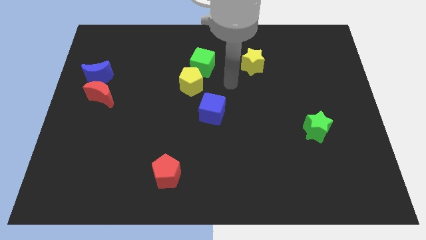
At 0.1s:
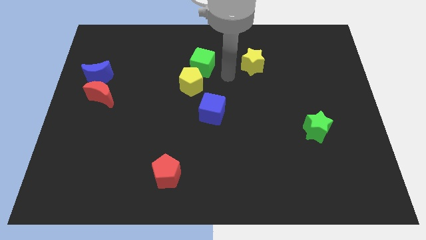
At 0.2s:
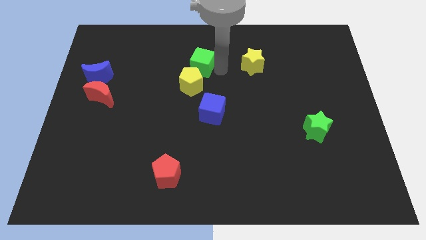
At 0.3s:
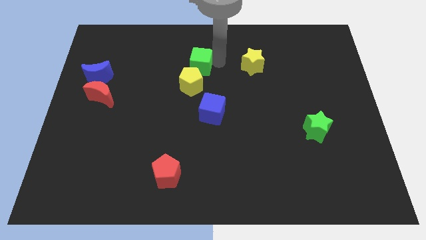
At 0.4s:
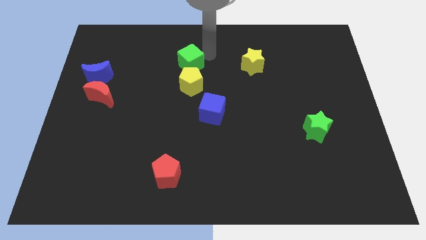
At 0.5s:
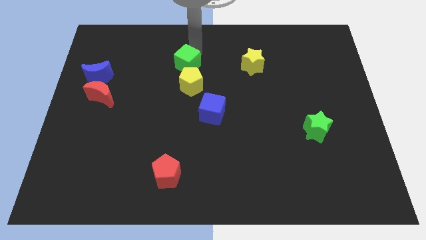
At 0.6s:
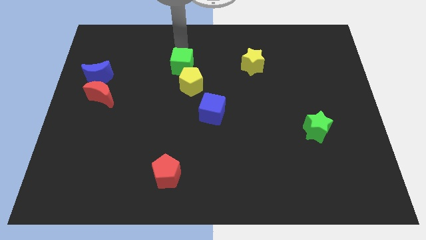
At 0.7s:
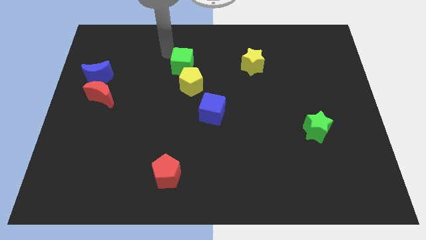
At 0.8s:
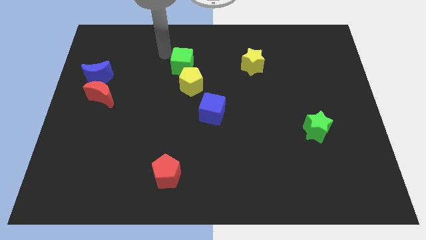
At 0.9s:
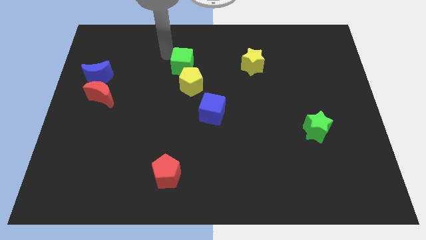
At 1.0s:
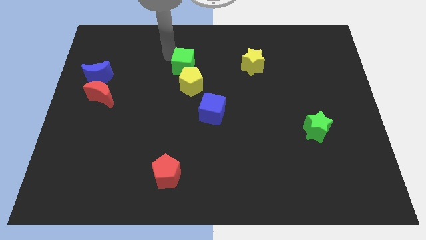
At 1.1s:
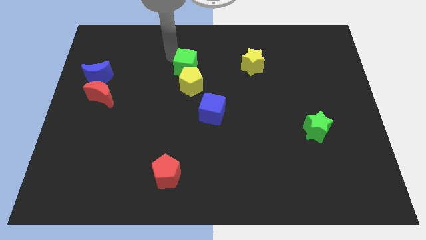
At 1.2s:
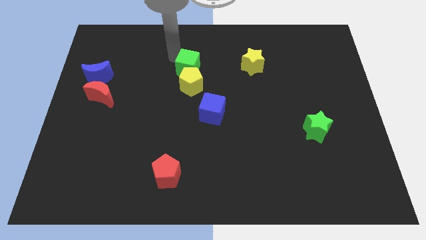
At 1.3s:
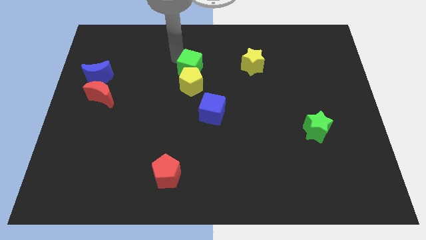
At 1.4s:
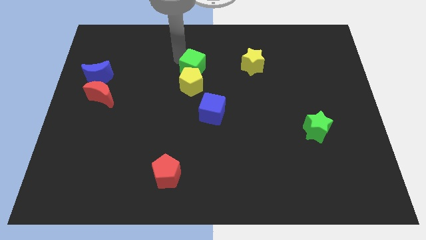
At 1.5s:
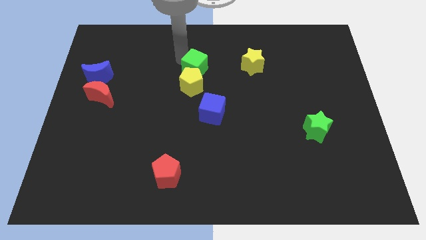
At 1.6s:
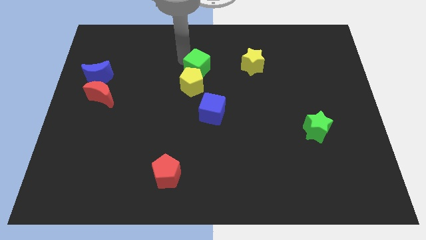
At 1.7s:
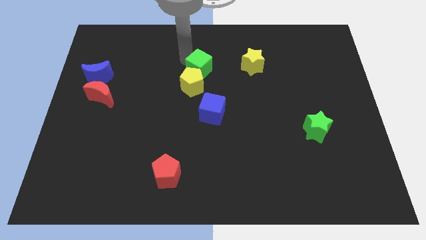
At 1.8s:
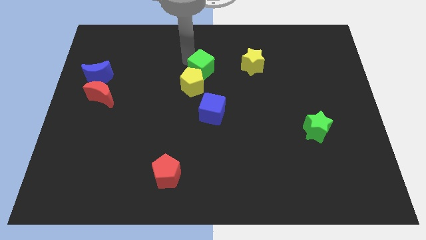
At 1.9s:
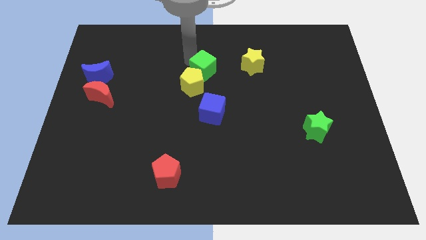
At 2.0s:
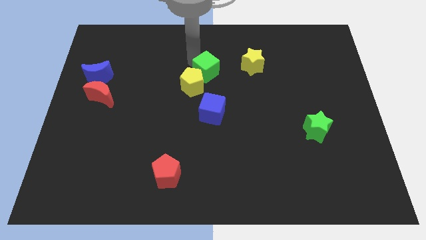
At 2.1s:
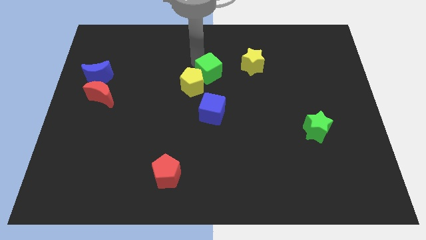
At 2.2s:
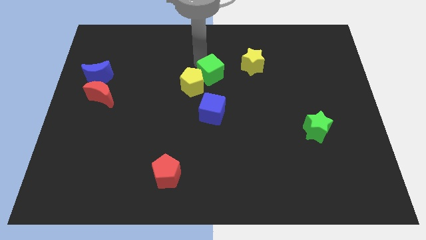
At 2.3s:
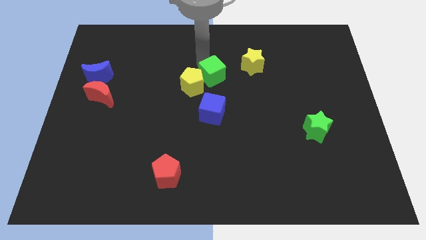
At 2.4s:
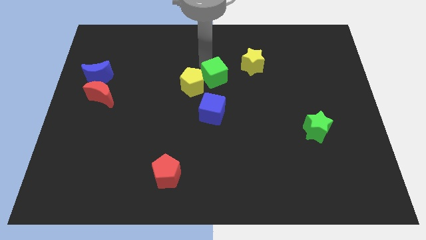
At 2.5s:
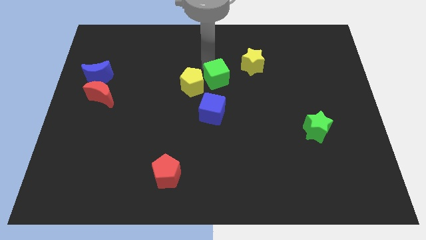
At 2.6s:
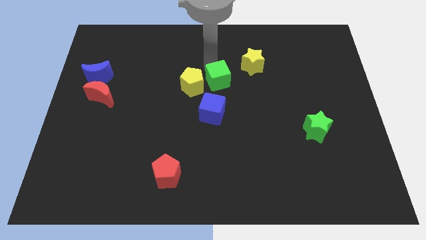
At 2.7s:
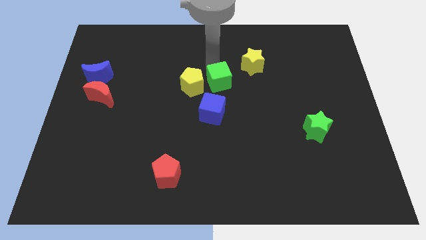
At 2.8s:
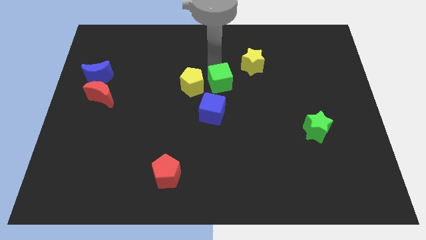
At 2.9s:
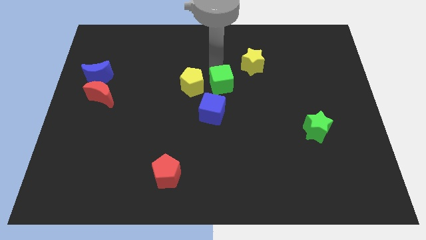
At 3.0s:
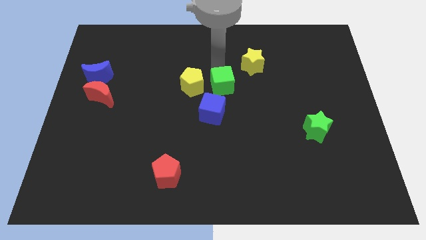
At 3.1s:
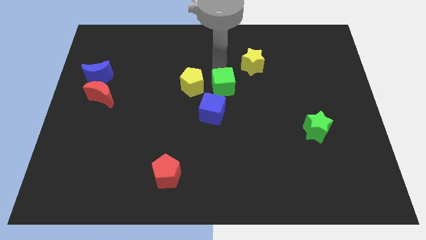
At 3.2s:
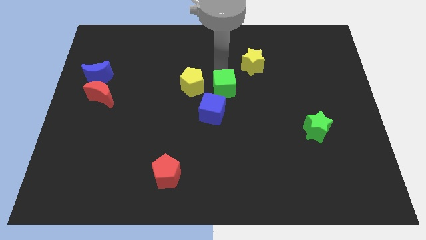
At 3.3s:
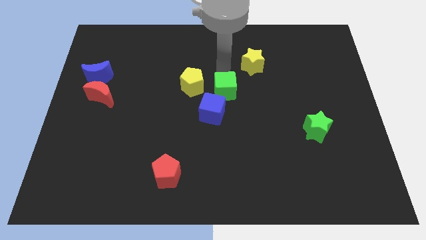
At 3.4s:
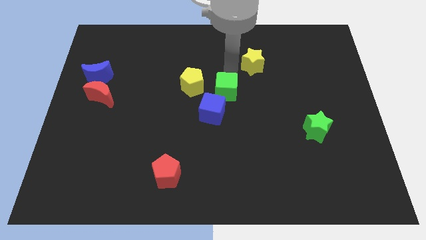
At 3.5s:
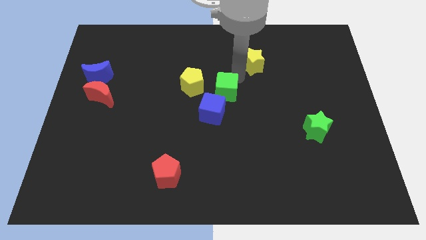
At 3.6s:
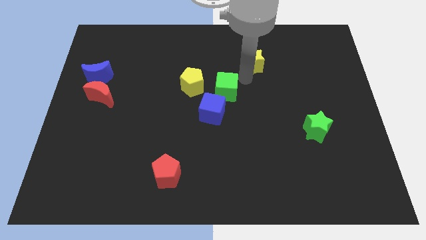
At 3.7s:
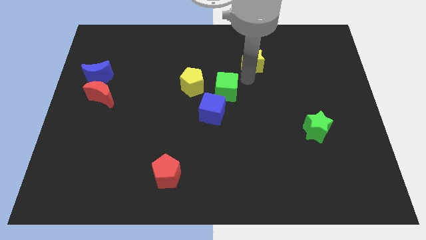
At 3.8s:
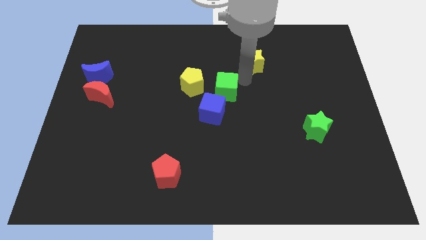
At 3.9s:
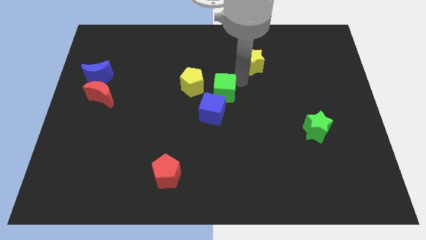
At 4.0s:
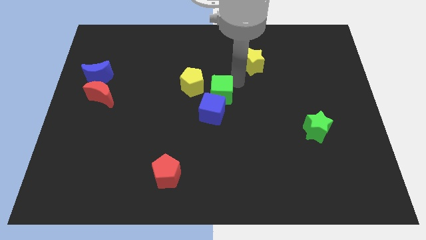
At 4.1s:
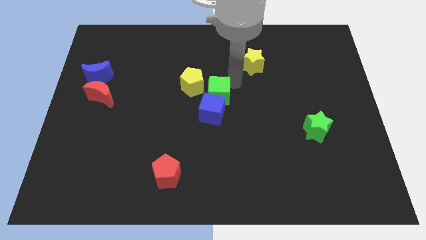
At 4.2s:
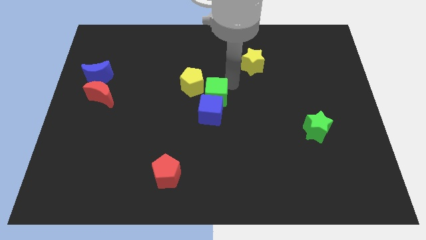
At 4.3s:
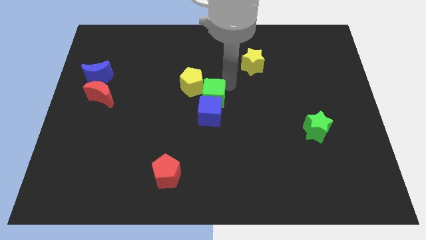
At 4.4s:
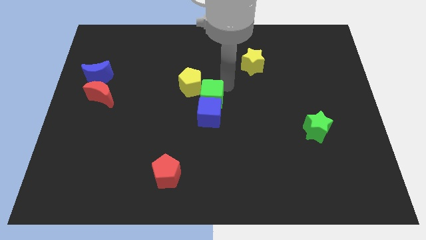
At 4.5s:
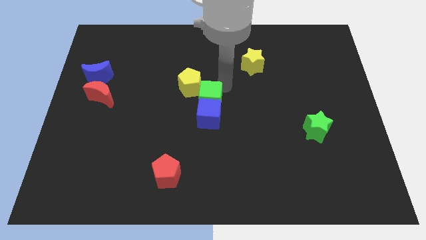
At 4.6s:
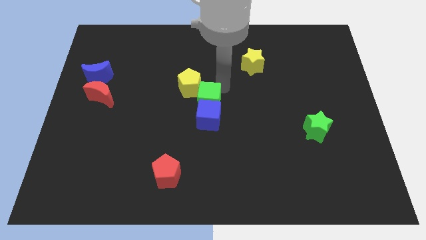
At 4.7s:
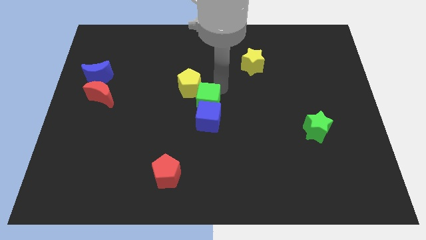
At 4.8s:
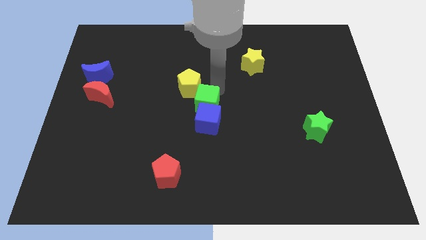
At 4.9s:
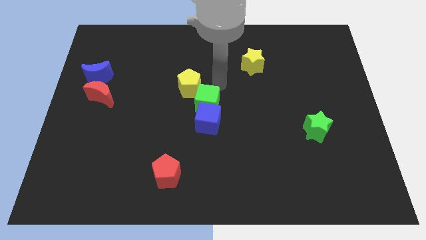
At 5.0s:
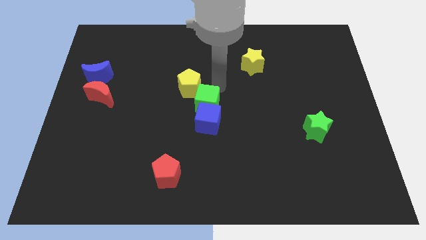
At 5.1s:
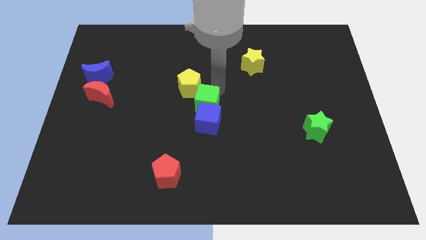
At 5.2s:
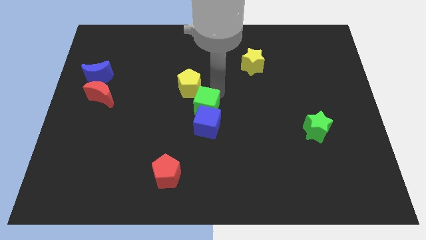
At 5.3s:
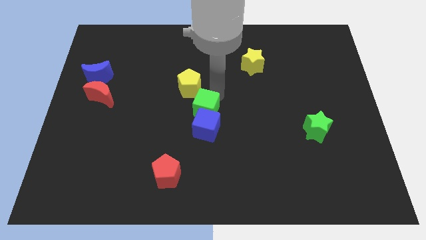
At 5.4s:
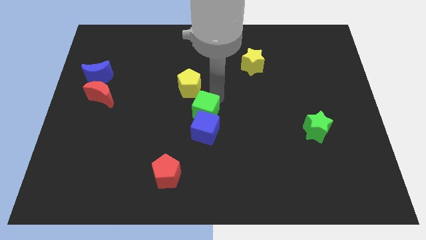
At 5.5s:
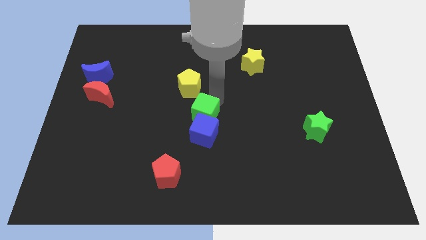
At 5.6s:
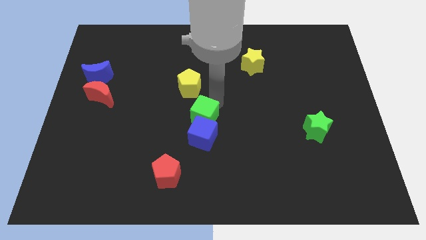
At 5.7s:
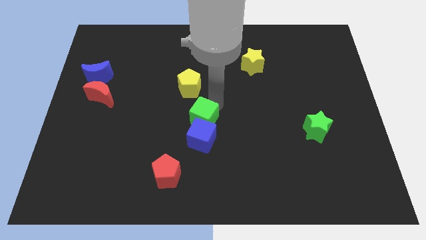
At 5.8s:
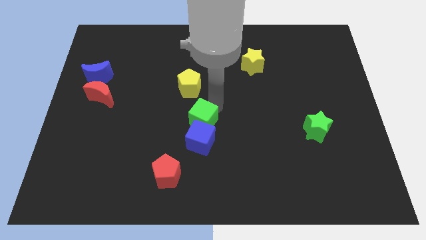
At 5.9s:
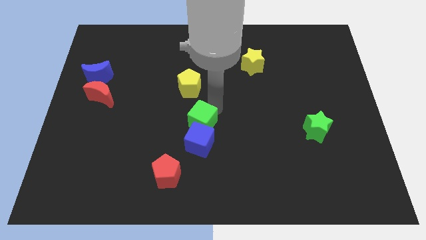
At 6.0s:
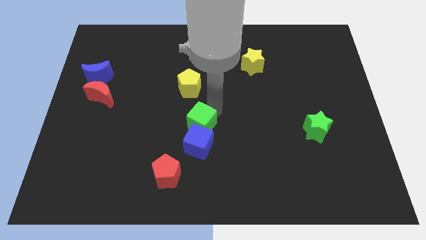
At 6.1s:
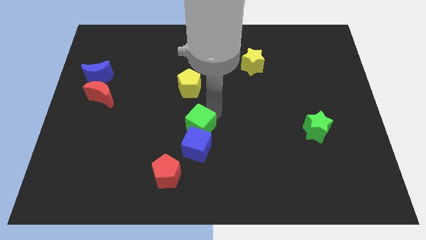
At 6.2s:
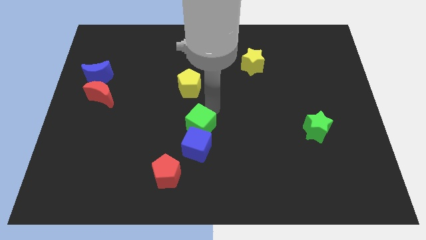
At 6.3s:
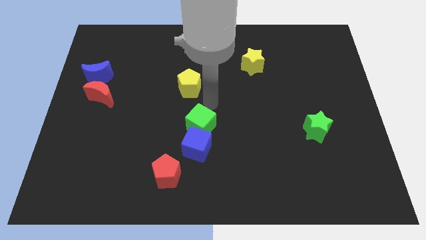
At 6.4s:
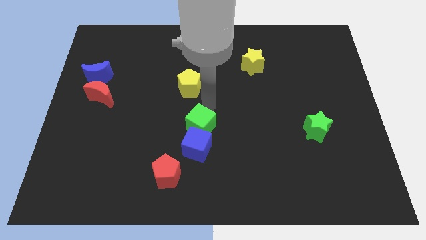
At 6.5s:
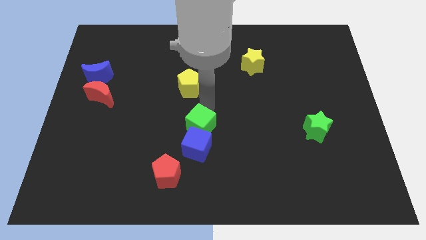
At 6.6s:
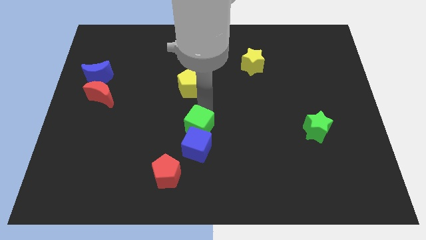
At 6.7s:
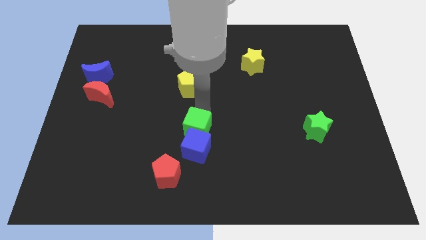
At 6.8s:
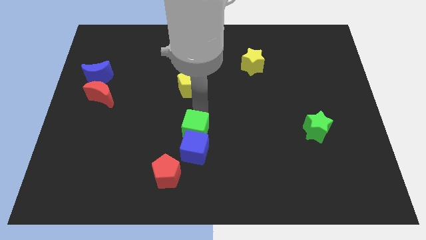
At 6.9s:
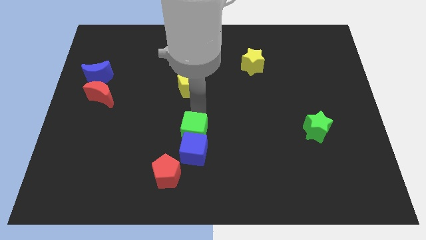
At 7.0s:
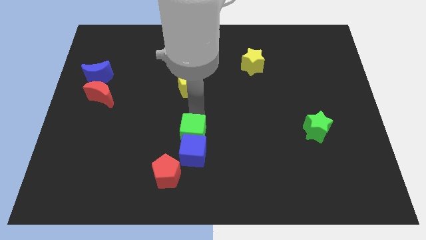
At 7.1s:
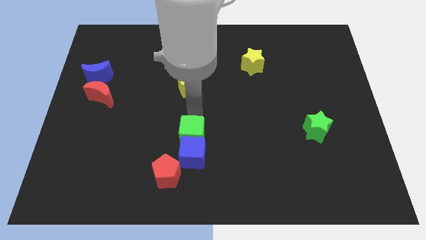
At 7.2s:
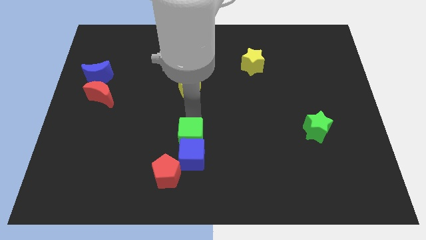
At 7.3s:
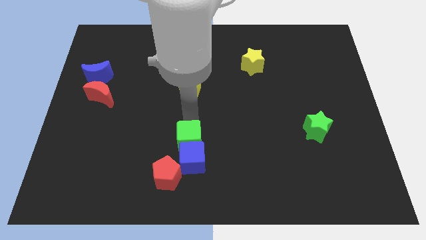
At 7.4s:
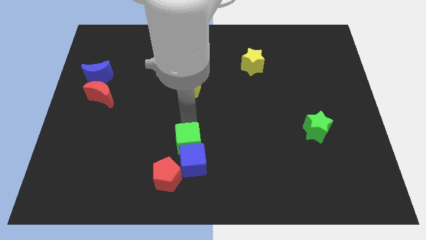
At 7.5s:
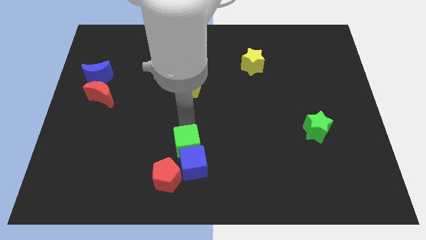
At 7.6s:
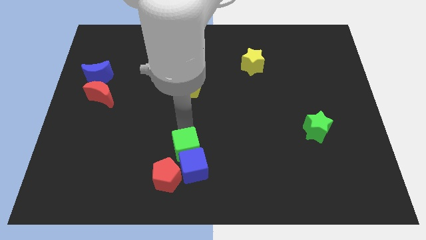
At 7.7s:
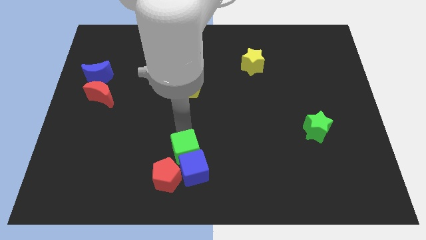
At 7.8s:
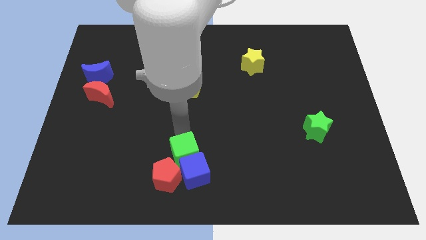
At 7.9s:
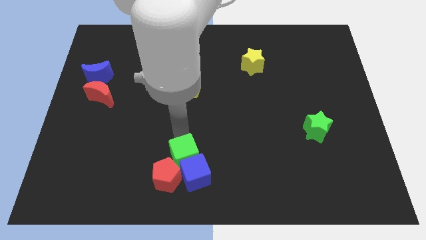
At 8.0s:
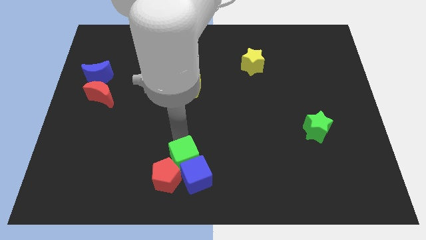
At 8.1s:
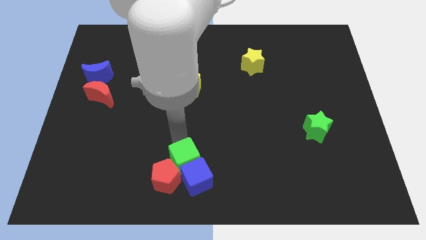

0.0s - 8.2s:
push the green cube to the bottom side
